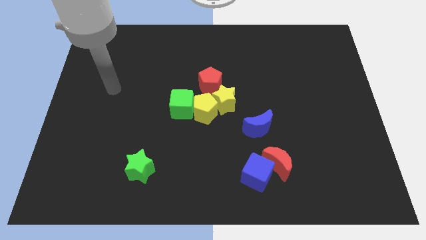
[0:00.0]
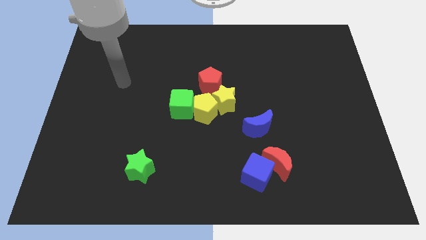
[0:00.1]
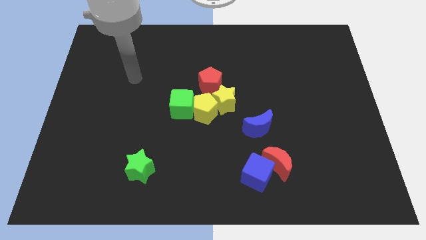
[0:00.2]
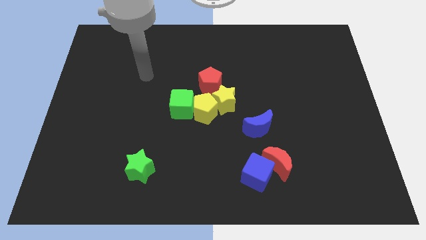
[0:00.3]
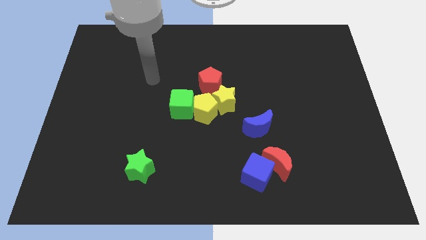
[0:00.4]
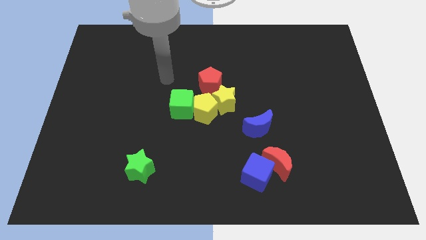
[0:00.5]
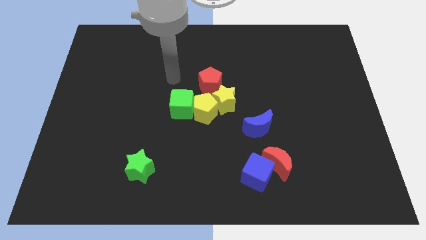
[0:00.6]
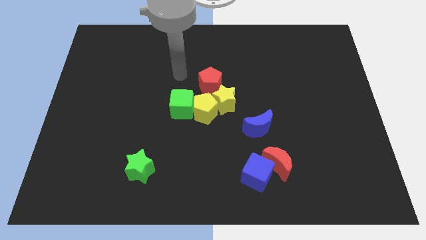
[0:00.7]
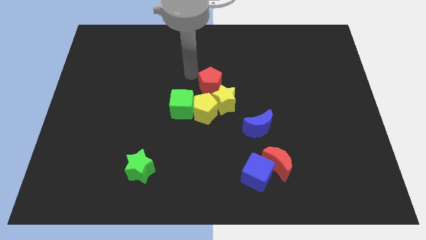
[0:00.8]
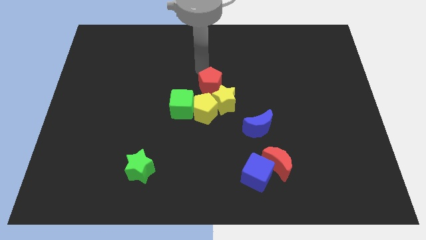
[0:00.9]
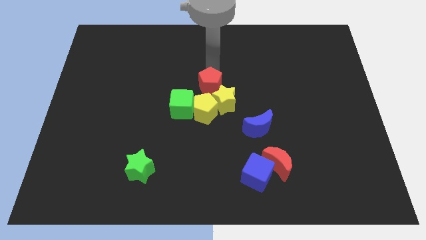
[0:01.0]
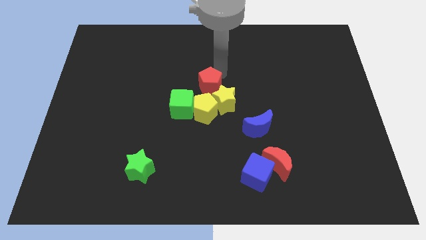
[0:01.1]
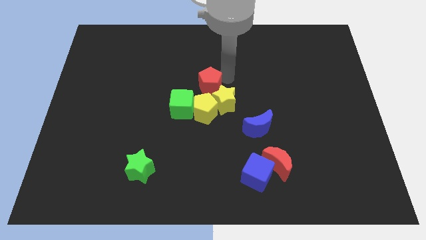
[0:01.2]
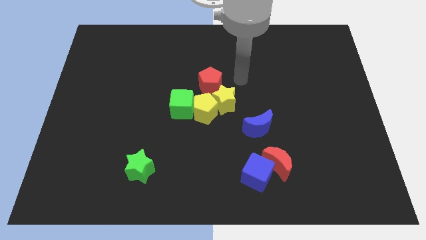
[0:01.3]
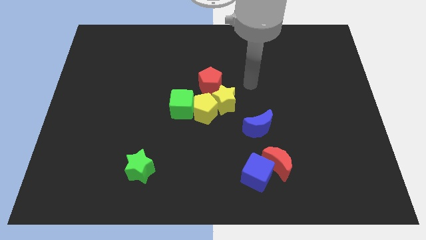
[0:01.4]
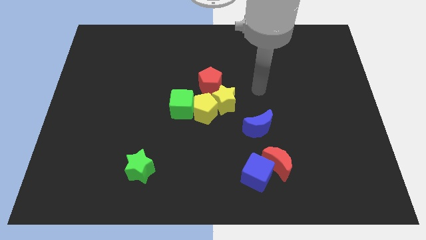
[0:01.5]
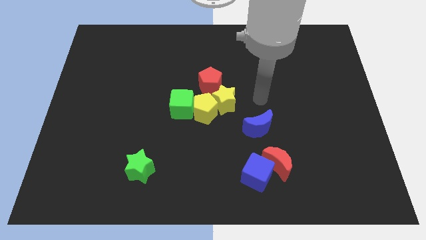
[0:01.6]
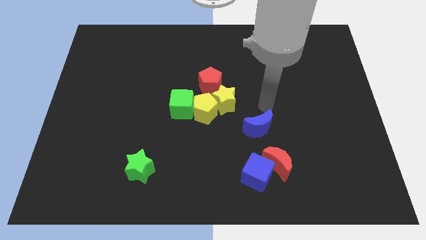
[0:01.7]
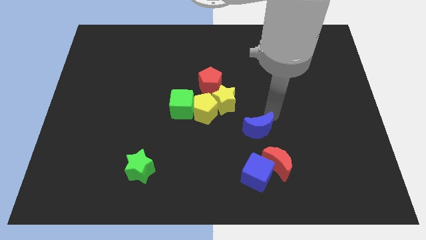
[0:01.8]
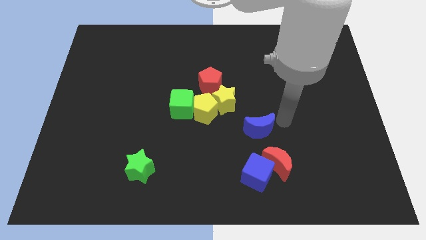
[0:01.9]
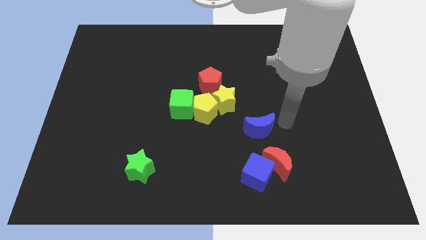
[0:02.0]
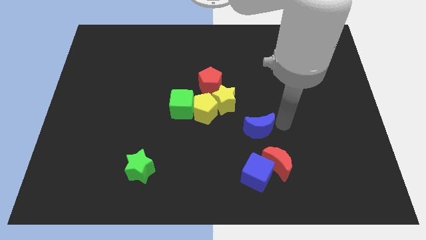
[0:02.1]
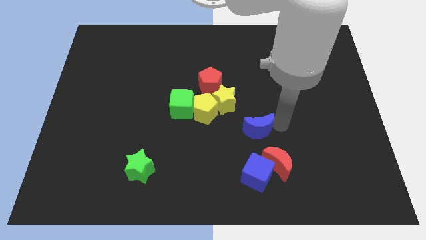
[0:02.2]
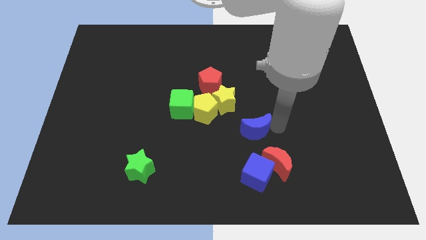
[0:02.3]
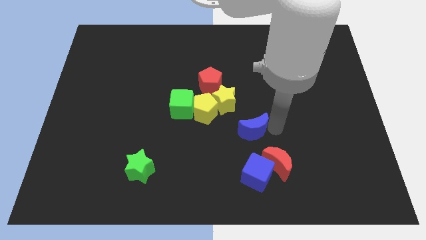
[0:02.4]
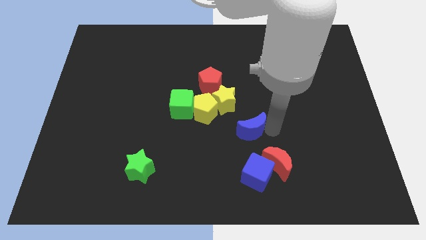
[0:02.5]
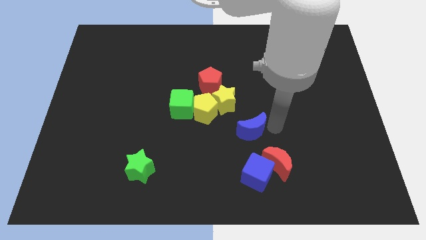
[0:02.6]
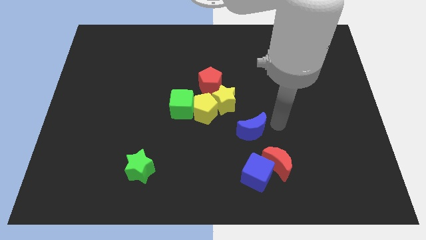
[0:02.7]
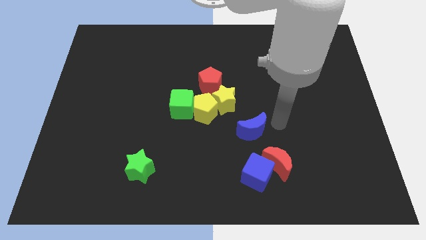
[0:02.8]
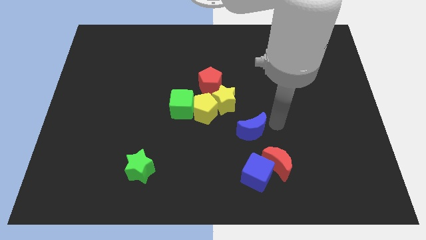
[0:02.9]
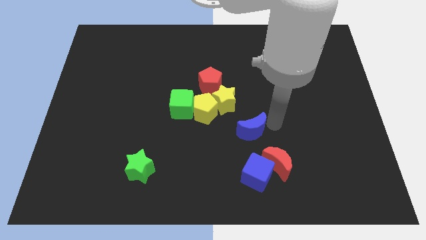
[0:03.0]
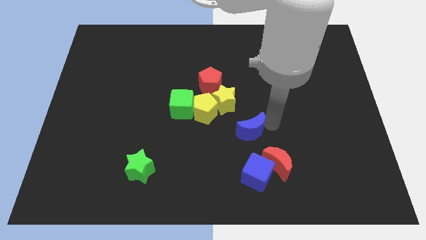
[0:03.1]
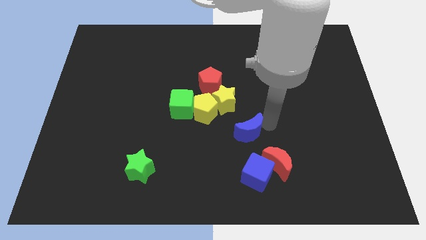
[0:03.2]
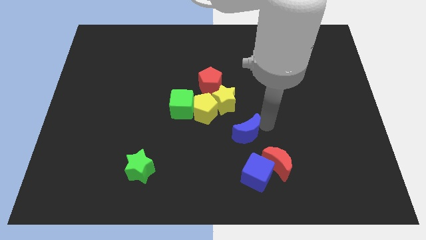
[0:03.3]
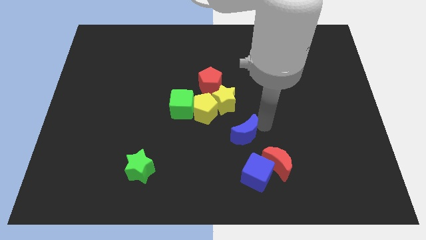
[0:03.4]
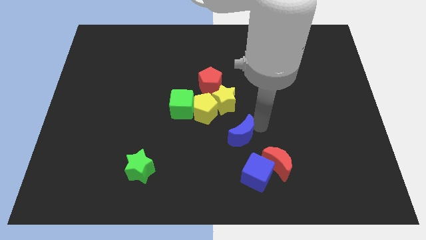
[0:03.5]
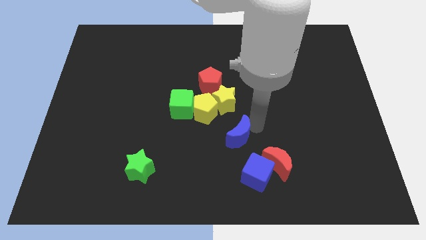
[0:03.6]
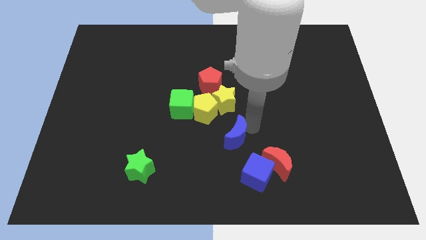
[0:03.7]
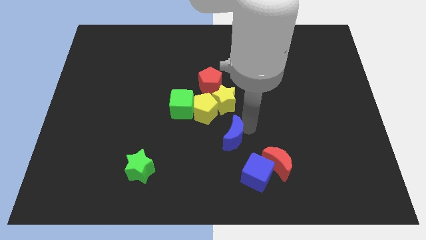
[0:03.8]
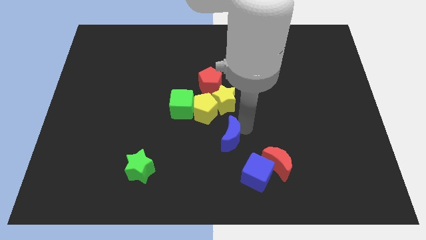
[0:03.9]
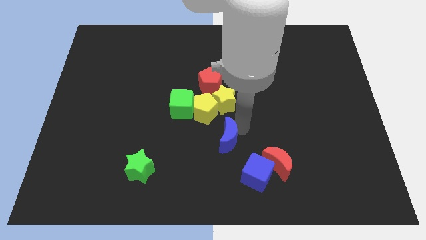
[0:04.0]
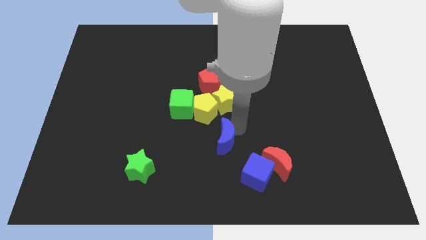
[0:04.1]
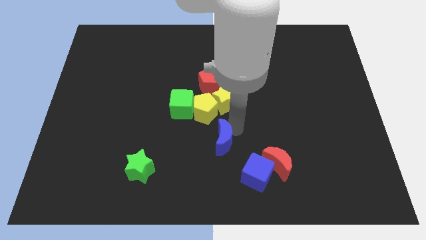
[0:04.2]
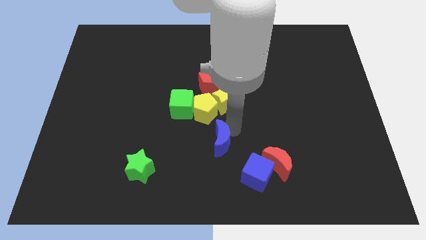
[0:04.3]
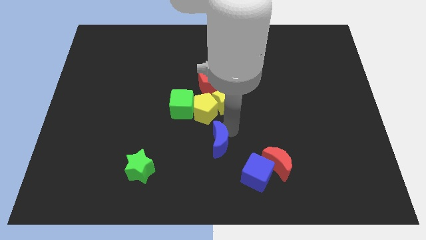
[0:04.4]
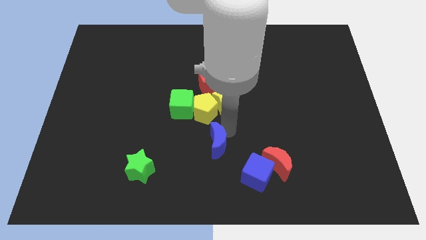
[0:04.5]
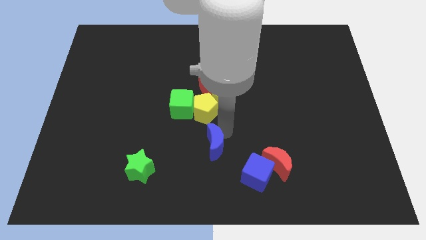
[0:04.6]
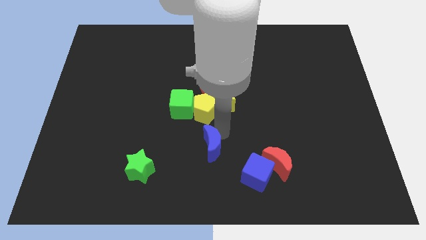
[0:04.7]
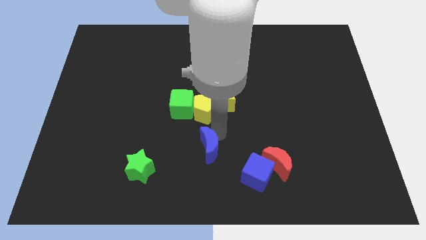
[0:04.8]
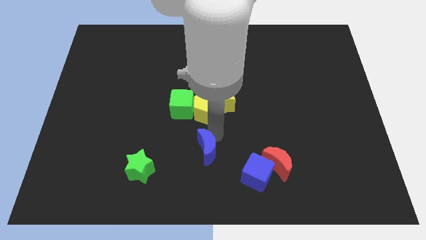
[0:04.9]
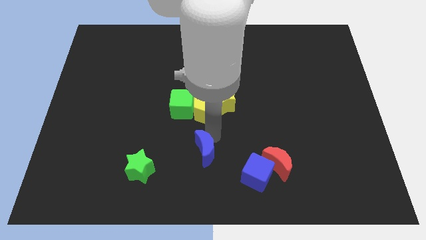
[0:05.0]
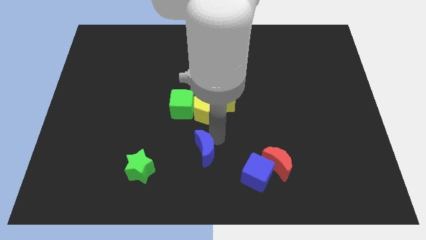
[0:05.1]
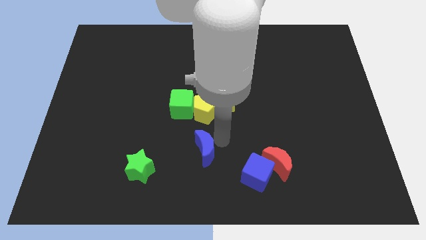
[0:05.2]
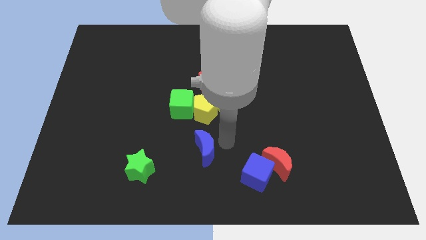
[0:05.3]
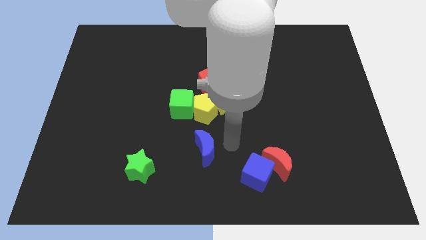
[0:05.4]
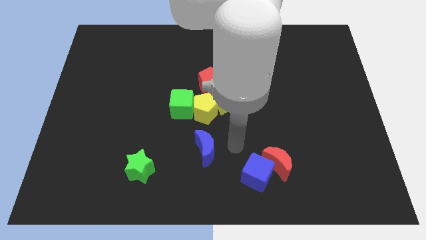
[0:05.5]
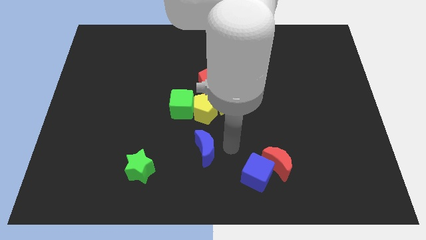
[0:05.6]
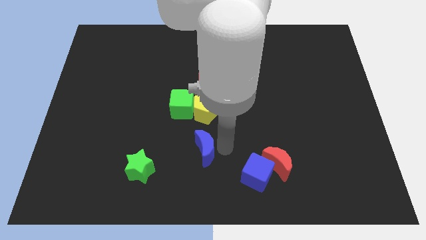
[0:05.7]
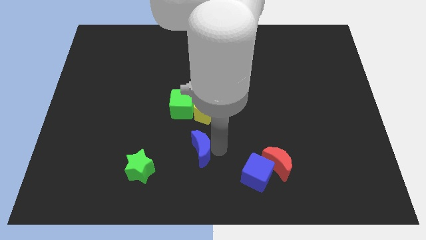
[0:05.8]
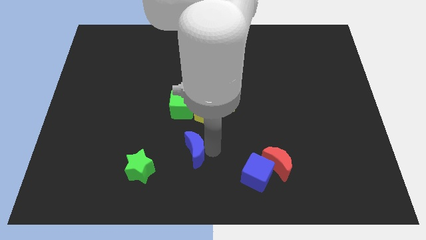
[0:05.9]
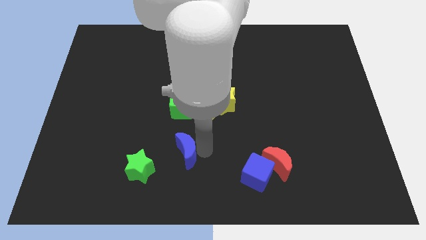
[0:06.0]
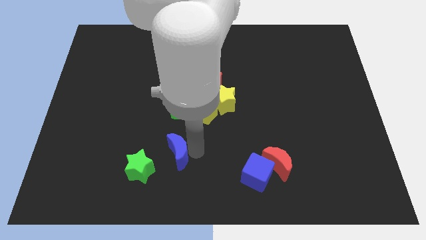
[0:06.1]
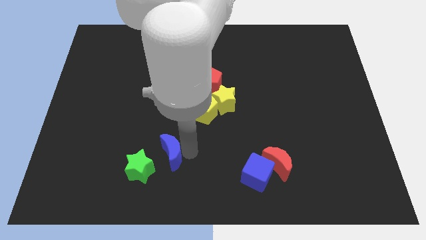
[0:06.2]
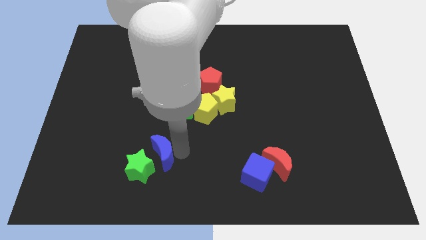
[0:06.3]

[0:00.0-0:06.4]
push the blue moon next to the green star

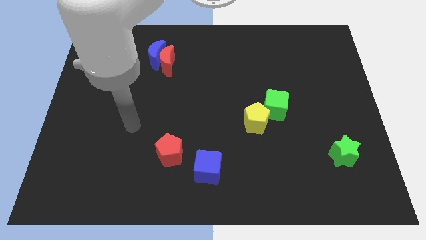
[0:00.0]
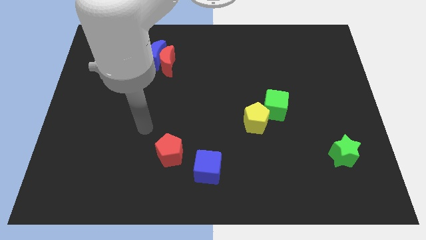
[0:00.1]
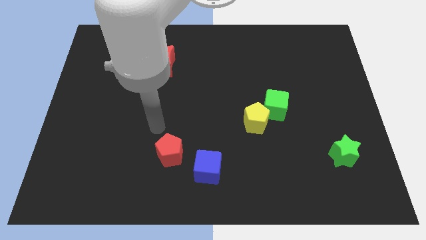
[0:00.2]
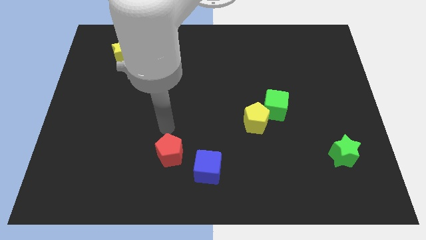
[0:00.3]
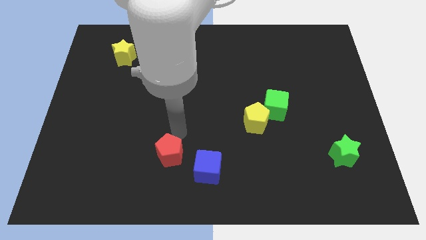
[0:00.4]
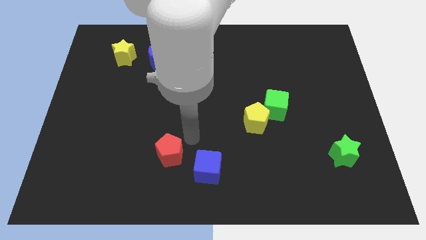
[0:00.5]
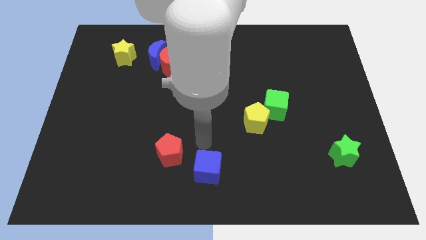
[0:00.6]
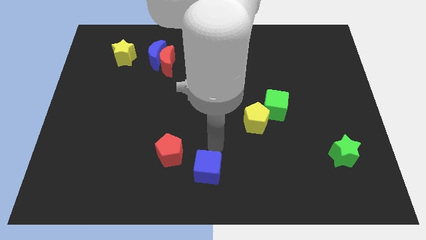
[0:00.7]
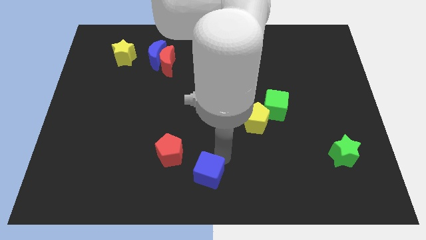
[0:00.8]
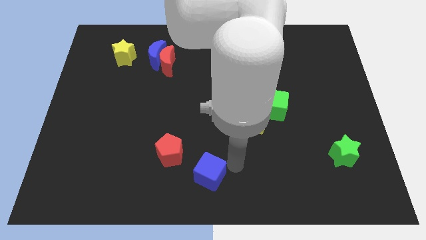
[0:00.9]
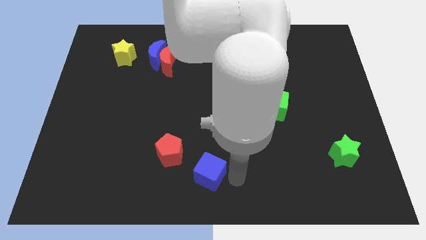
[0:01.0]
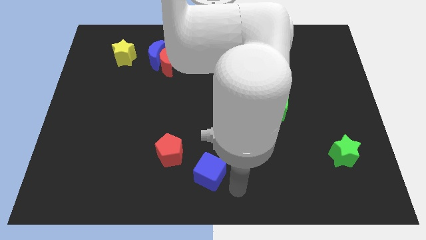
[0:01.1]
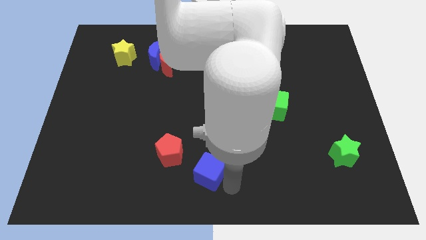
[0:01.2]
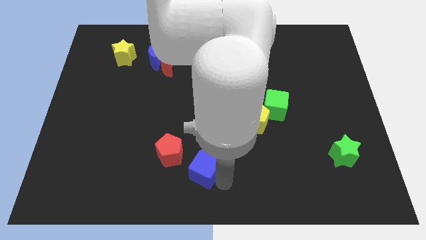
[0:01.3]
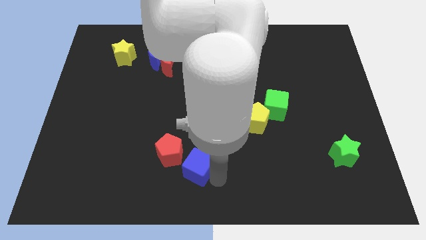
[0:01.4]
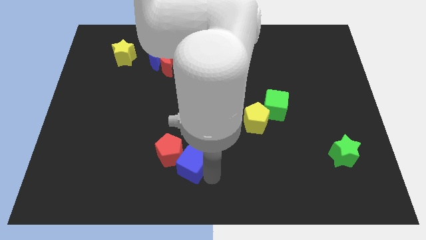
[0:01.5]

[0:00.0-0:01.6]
push the blue cube to the red pentagon
